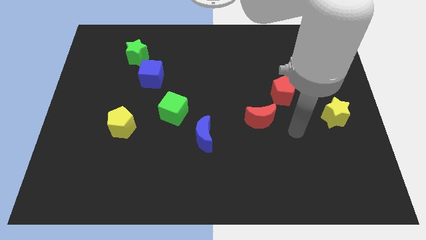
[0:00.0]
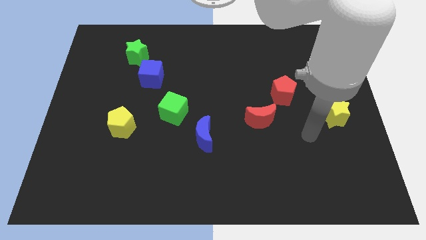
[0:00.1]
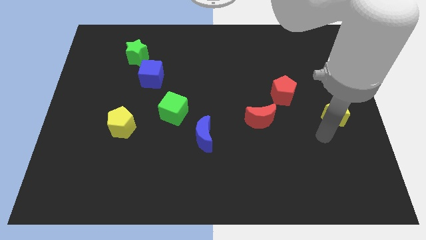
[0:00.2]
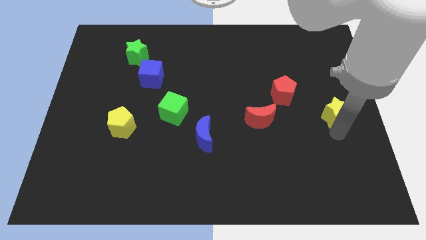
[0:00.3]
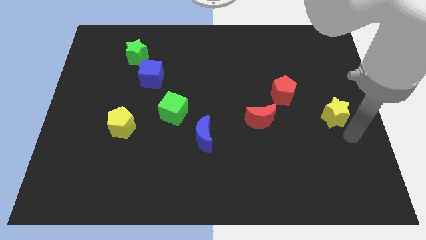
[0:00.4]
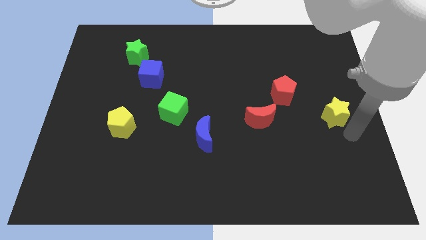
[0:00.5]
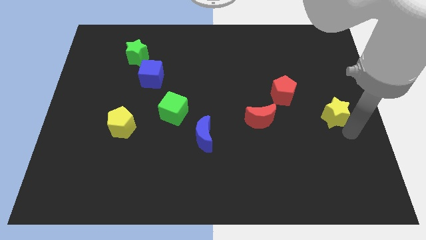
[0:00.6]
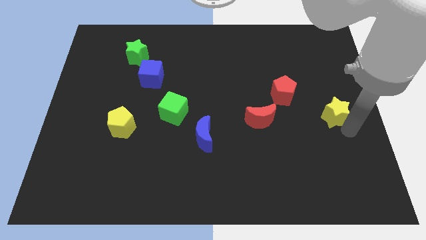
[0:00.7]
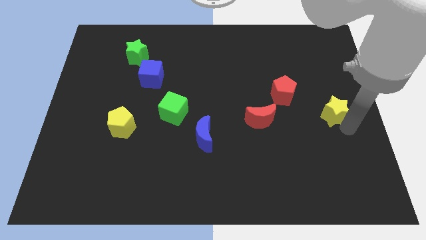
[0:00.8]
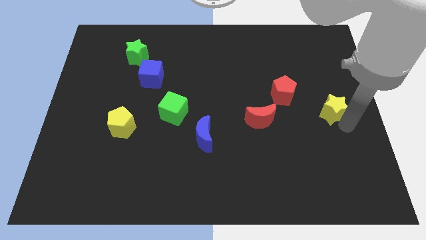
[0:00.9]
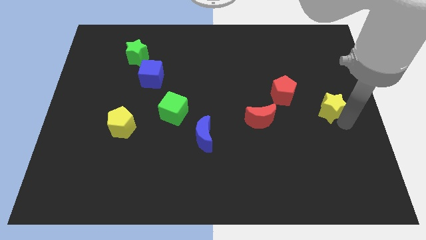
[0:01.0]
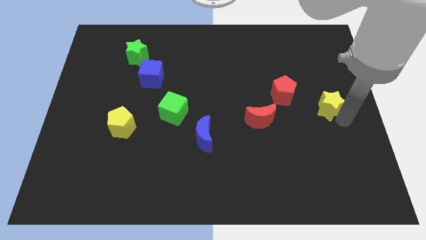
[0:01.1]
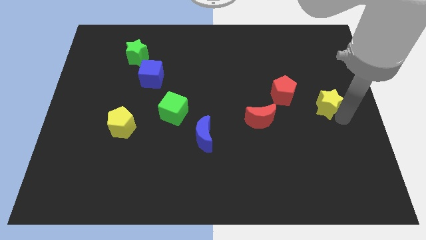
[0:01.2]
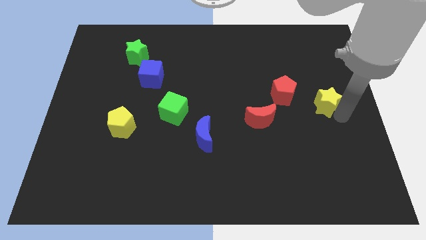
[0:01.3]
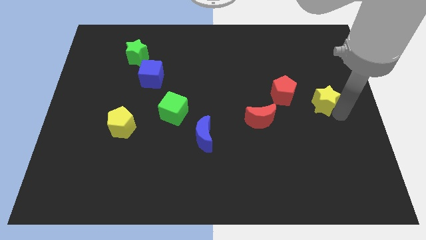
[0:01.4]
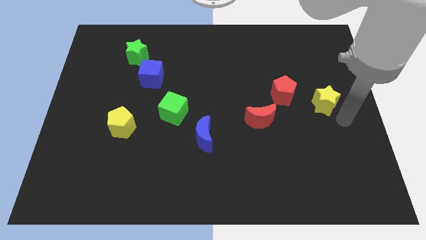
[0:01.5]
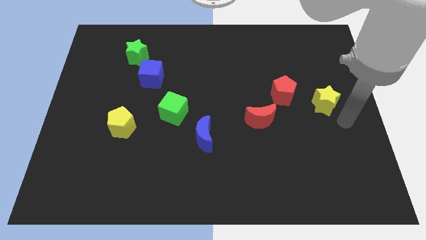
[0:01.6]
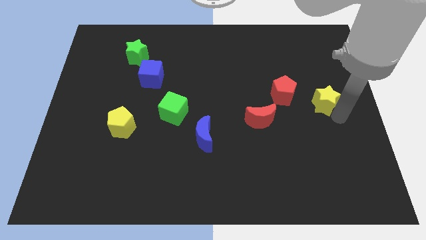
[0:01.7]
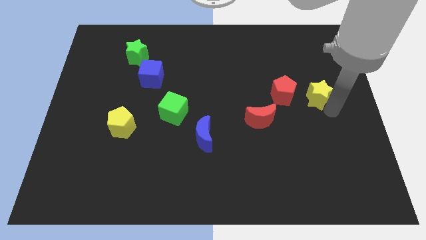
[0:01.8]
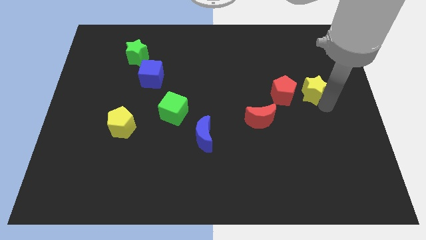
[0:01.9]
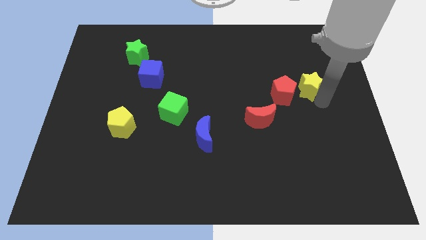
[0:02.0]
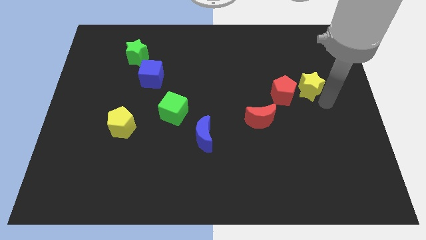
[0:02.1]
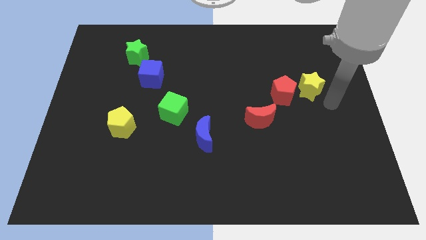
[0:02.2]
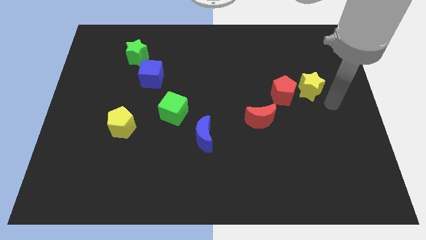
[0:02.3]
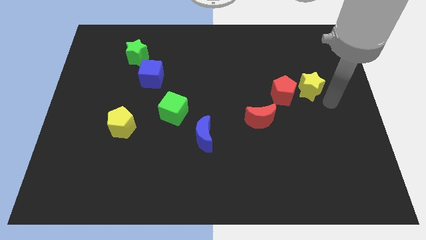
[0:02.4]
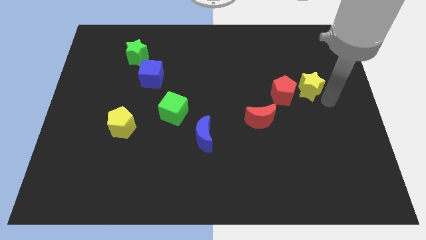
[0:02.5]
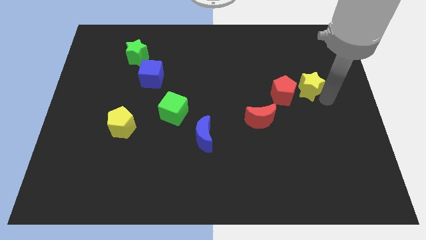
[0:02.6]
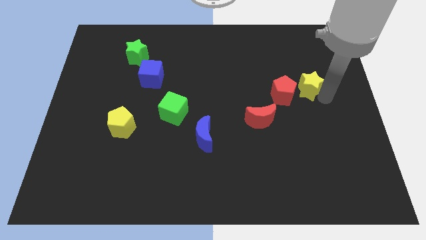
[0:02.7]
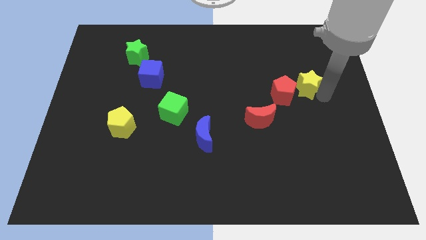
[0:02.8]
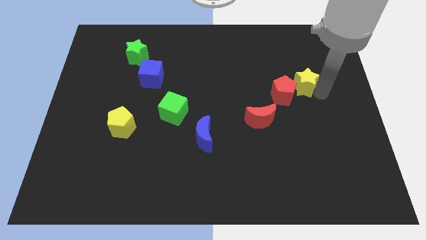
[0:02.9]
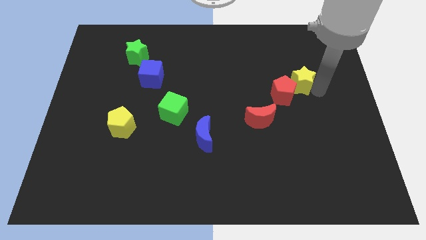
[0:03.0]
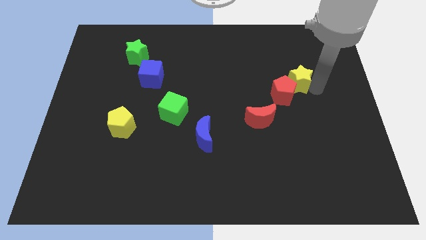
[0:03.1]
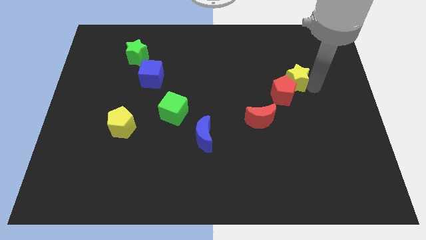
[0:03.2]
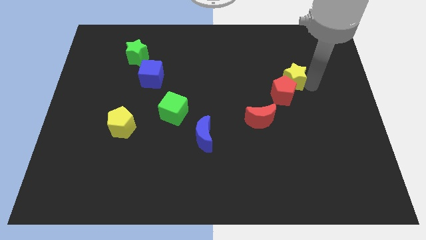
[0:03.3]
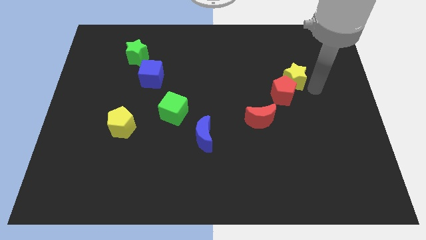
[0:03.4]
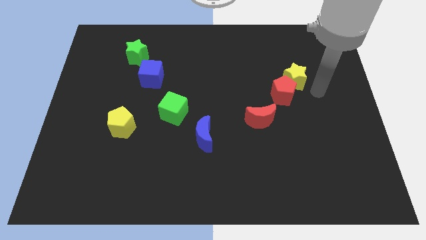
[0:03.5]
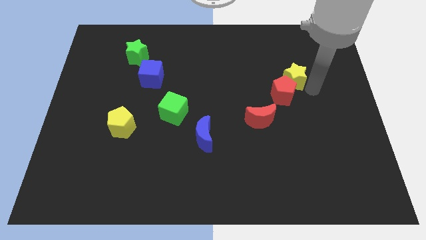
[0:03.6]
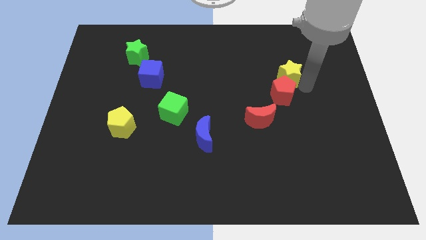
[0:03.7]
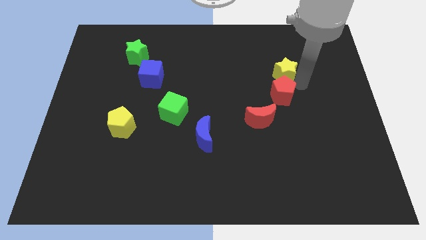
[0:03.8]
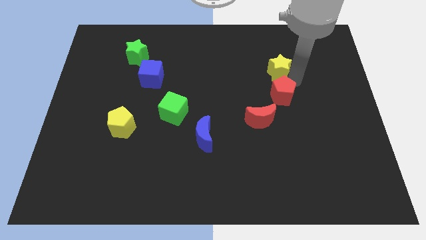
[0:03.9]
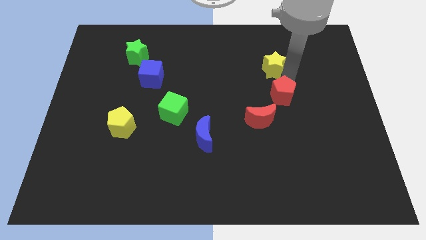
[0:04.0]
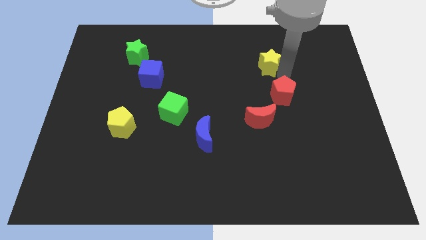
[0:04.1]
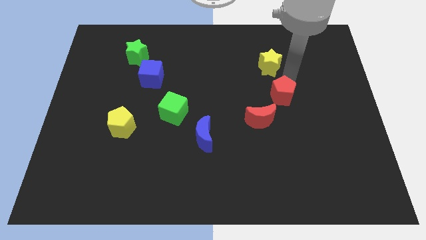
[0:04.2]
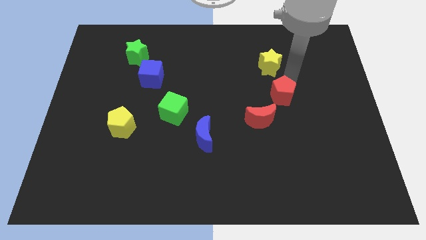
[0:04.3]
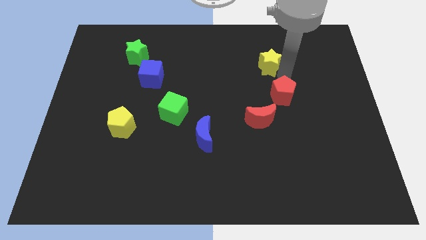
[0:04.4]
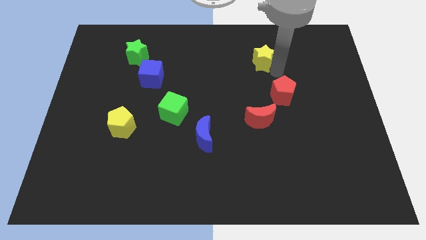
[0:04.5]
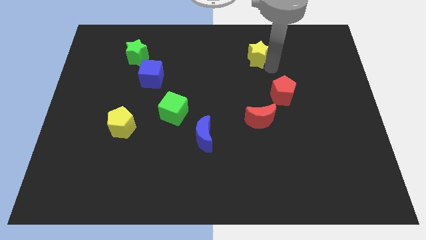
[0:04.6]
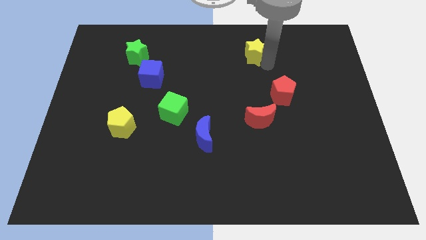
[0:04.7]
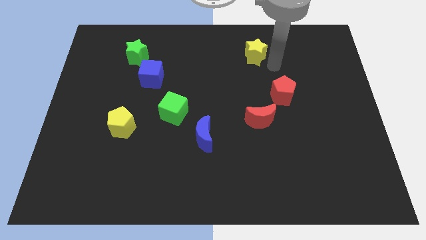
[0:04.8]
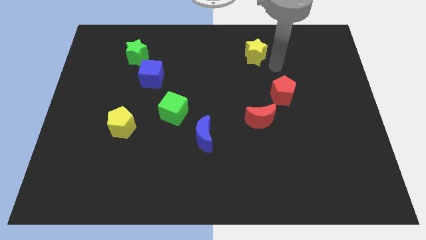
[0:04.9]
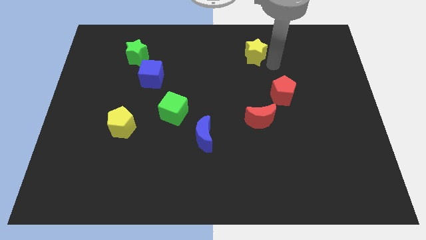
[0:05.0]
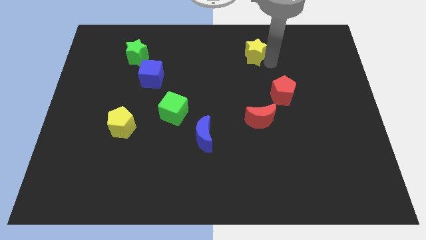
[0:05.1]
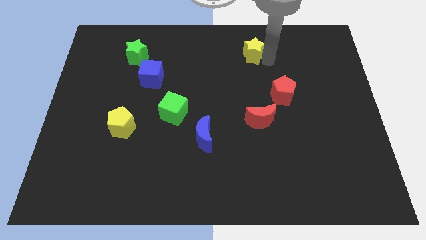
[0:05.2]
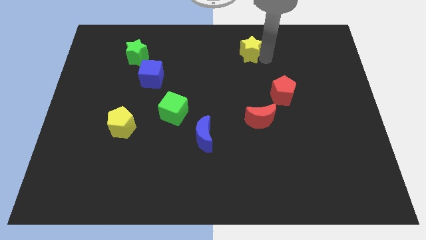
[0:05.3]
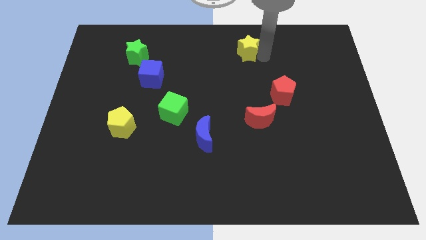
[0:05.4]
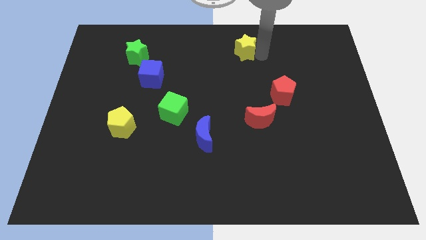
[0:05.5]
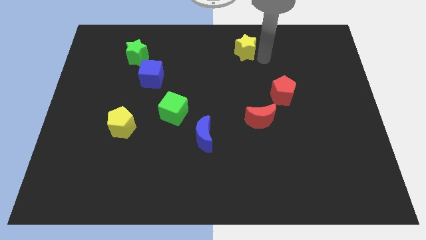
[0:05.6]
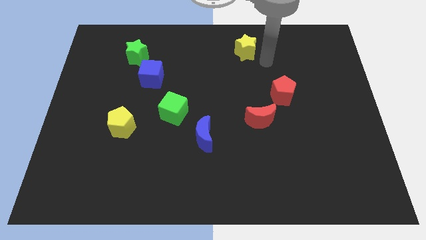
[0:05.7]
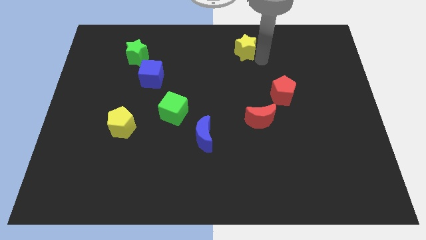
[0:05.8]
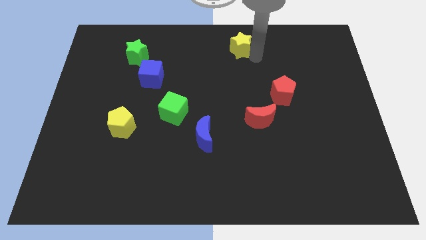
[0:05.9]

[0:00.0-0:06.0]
put the yellow star to the top

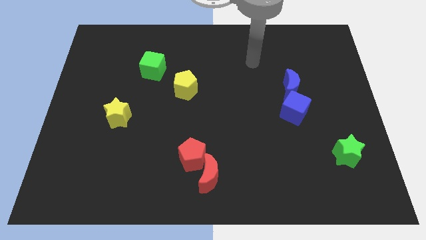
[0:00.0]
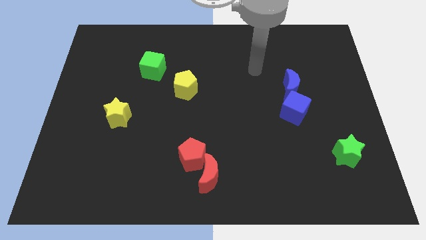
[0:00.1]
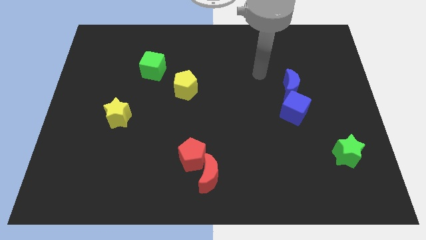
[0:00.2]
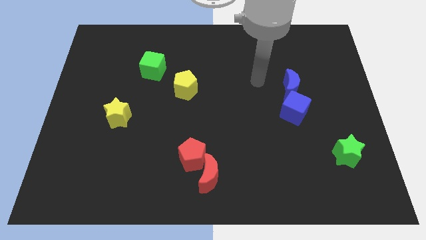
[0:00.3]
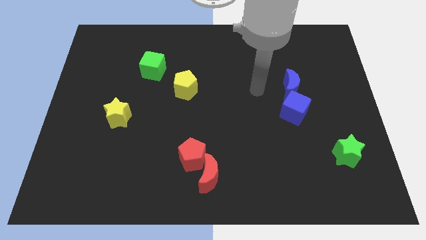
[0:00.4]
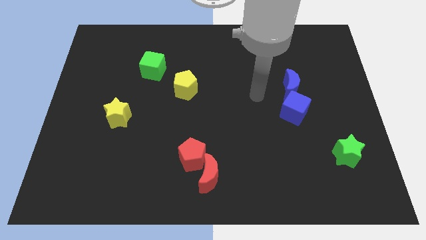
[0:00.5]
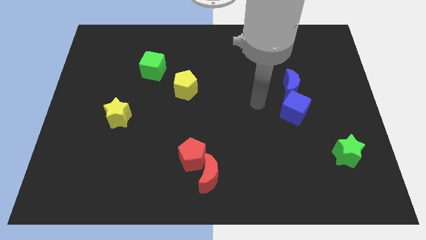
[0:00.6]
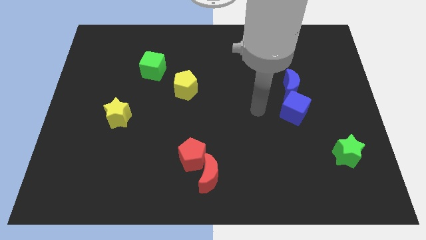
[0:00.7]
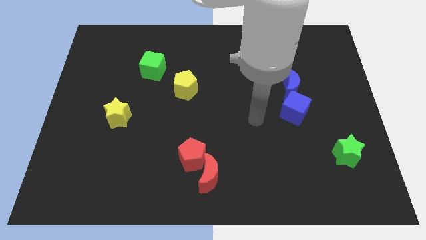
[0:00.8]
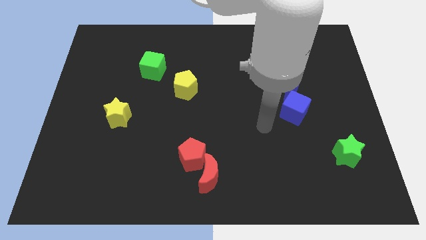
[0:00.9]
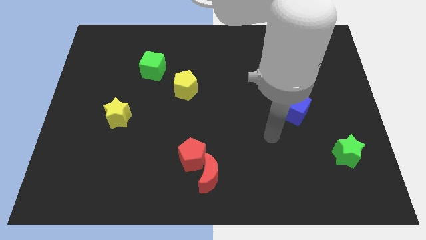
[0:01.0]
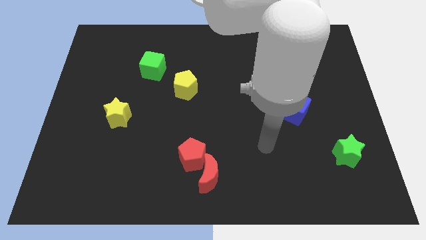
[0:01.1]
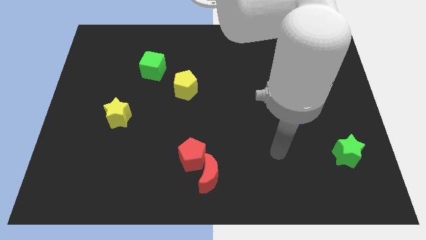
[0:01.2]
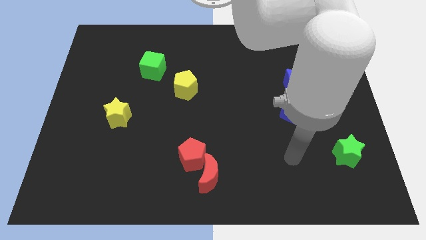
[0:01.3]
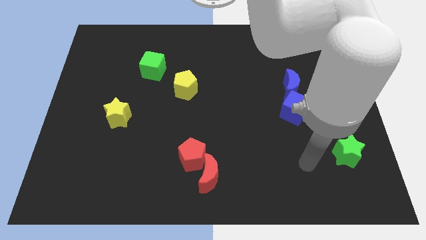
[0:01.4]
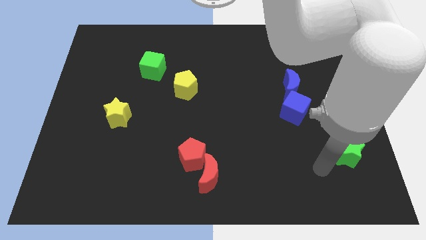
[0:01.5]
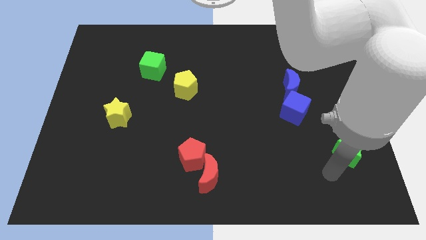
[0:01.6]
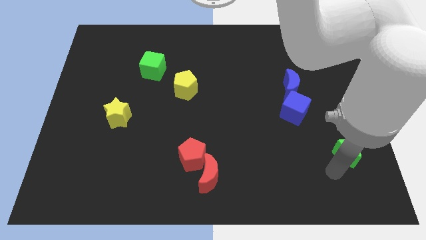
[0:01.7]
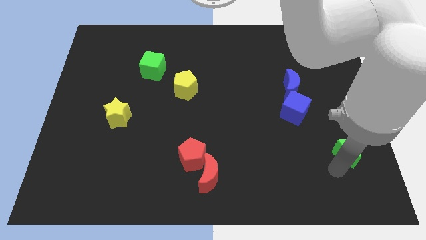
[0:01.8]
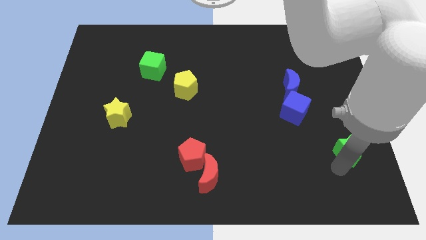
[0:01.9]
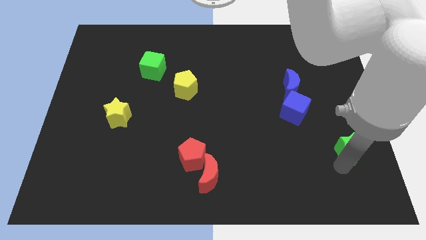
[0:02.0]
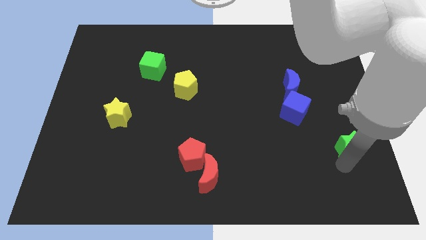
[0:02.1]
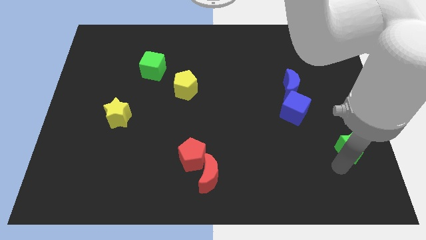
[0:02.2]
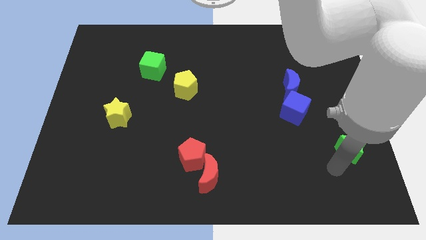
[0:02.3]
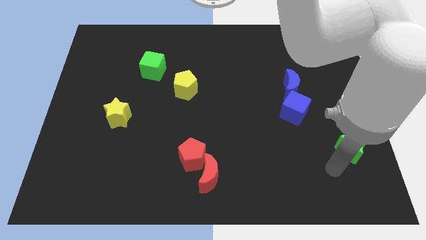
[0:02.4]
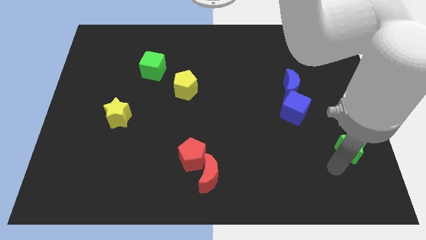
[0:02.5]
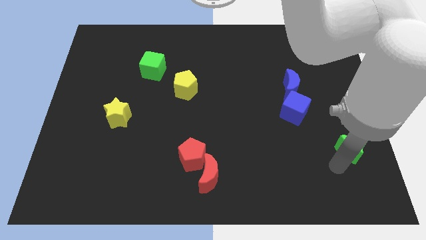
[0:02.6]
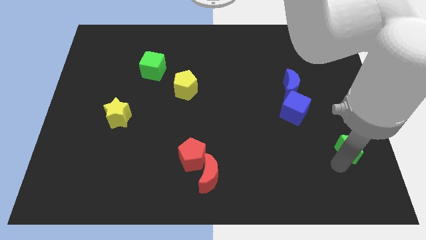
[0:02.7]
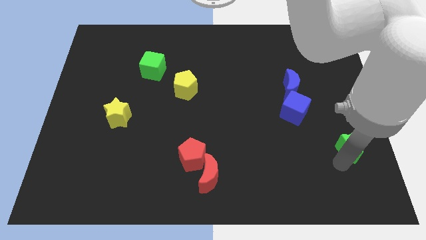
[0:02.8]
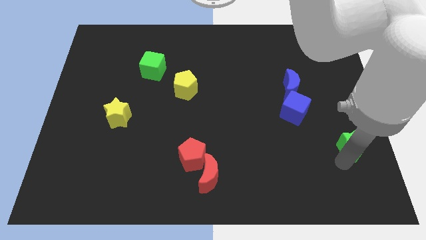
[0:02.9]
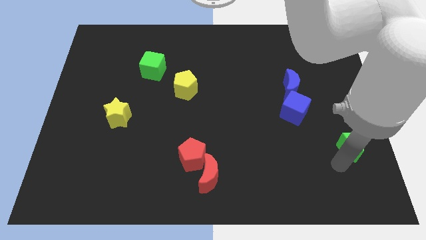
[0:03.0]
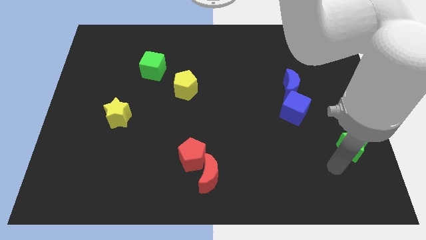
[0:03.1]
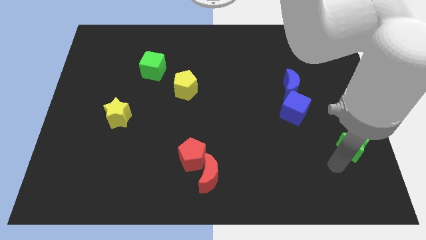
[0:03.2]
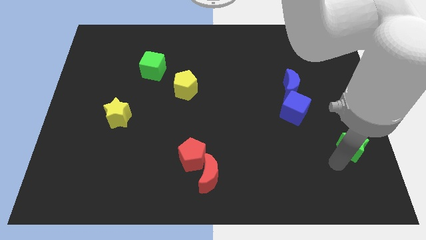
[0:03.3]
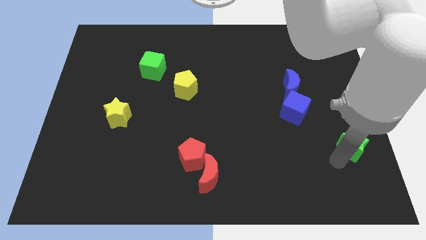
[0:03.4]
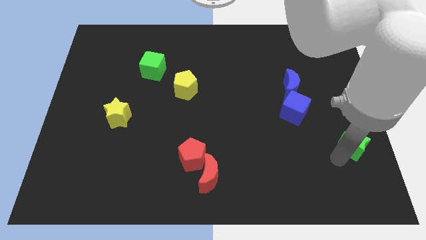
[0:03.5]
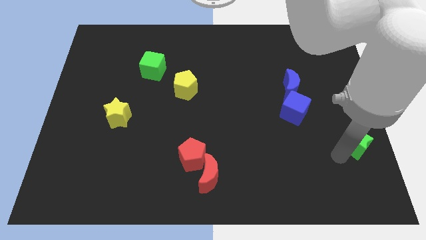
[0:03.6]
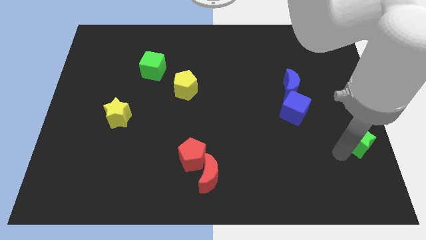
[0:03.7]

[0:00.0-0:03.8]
push the green star to the right side
